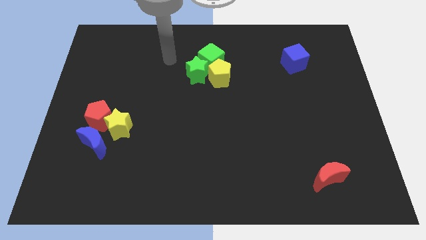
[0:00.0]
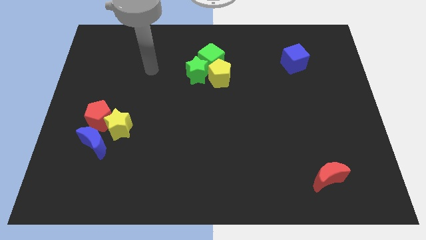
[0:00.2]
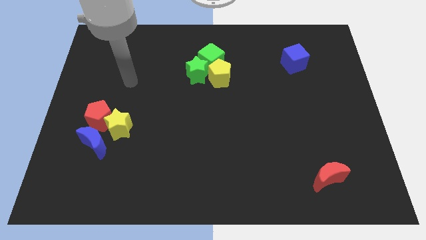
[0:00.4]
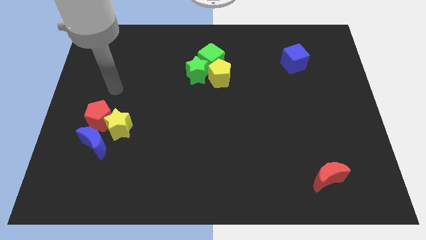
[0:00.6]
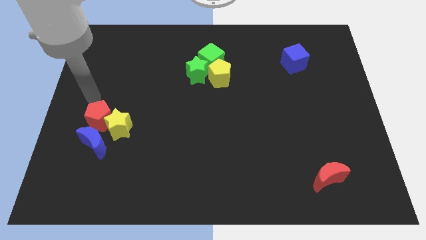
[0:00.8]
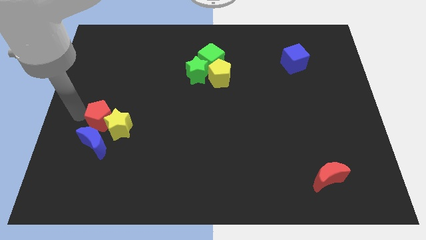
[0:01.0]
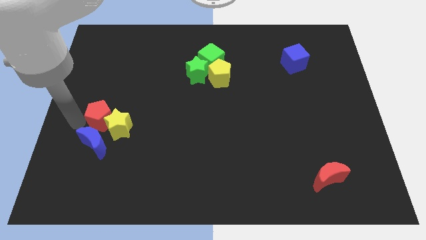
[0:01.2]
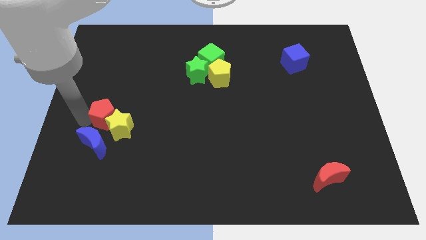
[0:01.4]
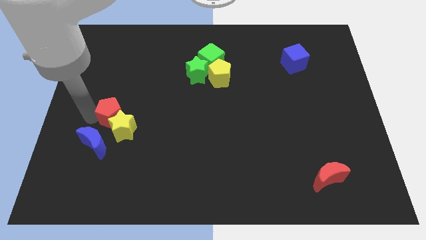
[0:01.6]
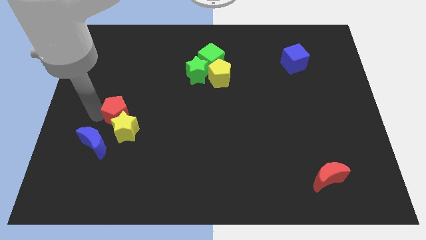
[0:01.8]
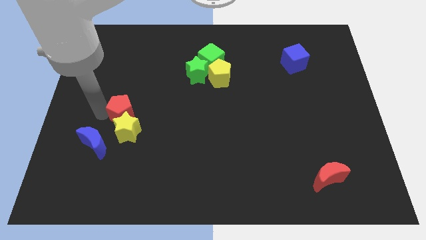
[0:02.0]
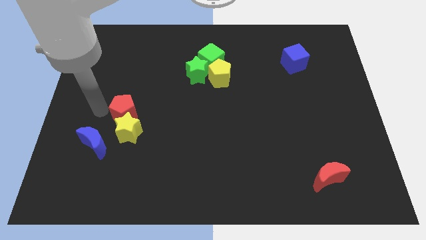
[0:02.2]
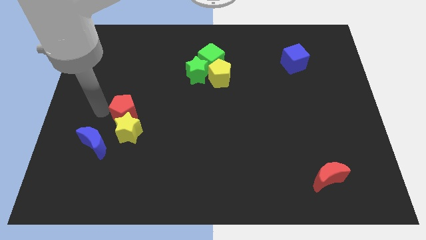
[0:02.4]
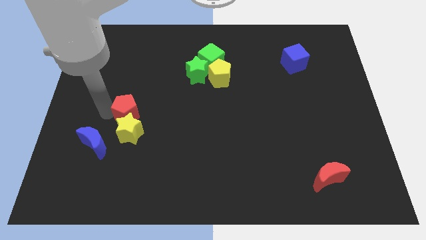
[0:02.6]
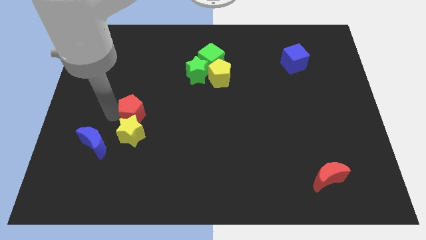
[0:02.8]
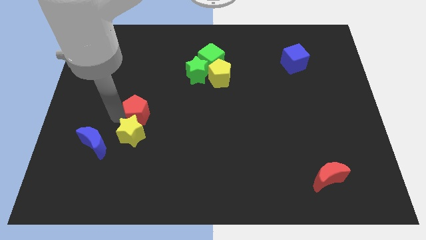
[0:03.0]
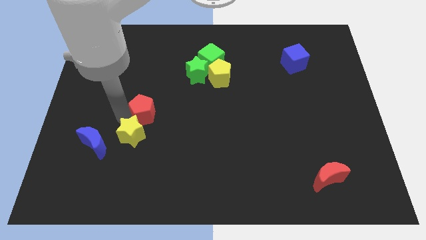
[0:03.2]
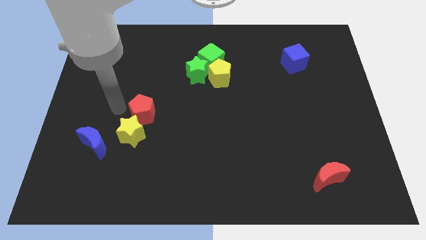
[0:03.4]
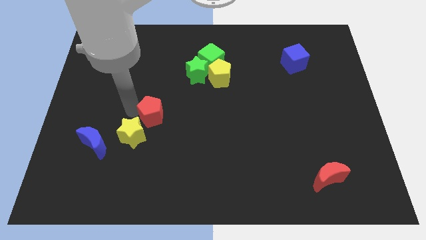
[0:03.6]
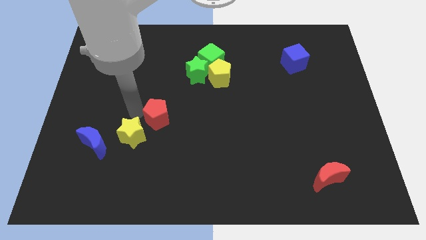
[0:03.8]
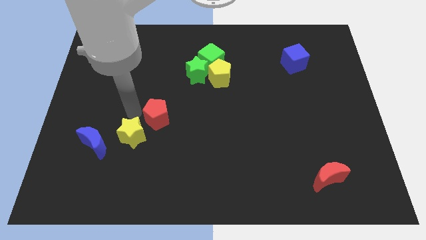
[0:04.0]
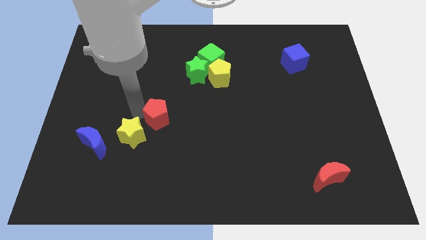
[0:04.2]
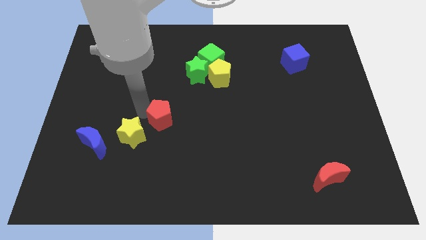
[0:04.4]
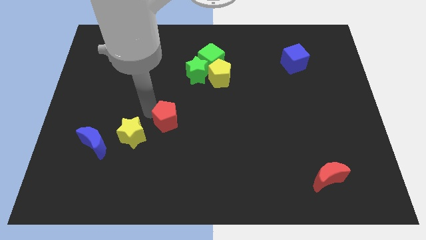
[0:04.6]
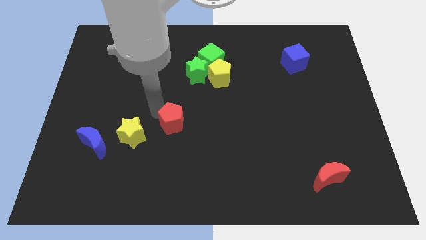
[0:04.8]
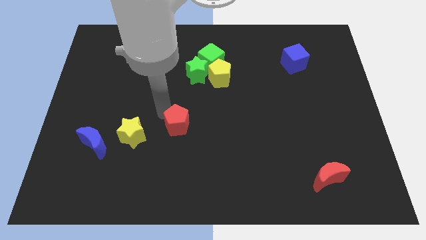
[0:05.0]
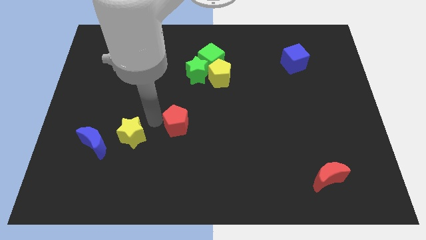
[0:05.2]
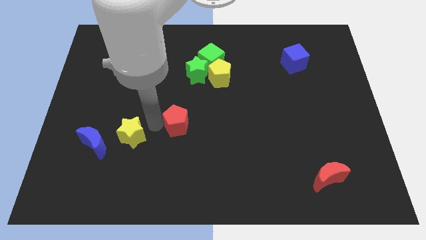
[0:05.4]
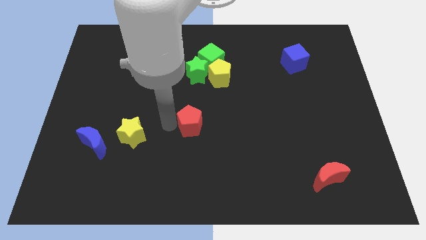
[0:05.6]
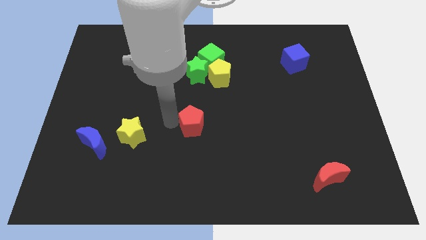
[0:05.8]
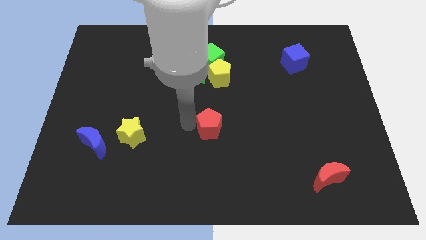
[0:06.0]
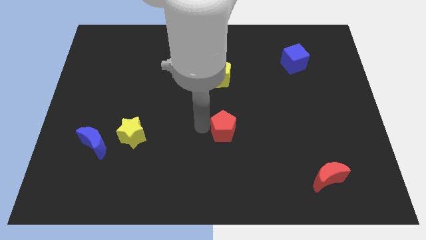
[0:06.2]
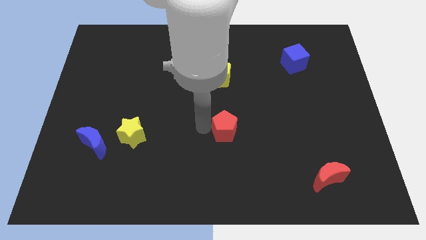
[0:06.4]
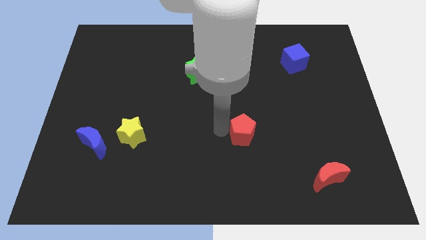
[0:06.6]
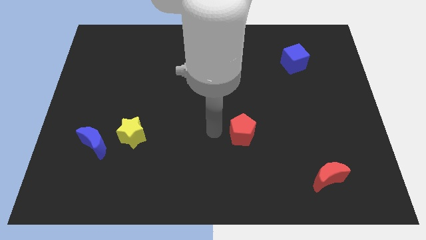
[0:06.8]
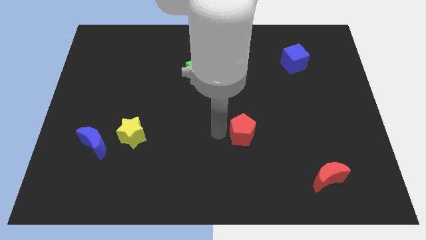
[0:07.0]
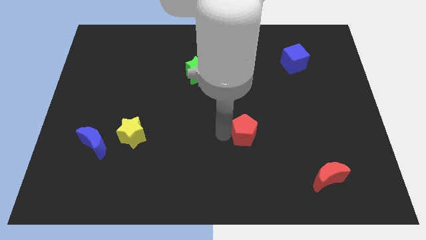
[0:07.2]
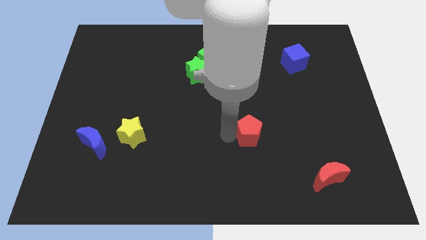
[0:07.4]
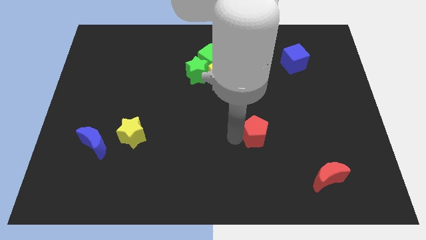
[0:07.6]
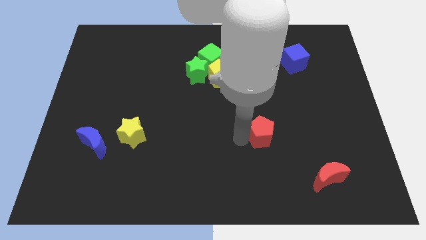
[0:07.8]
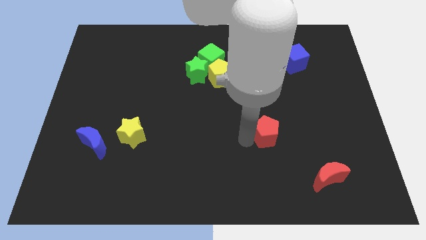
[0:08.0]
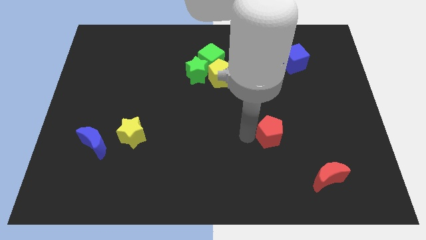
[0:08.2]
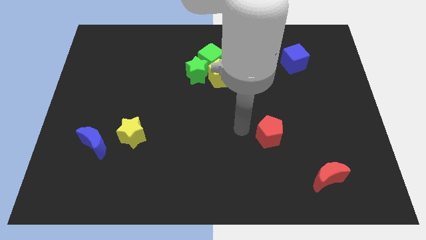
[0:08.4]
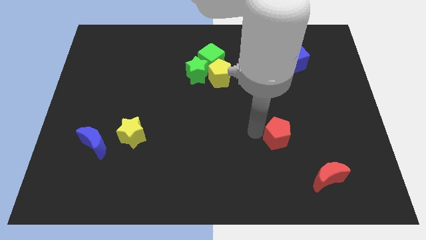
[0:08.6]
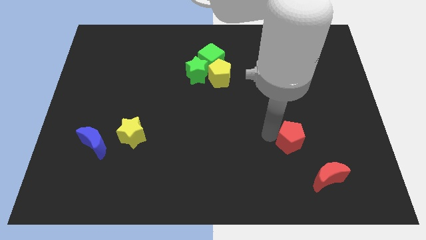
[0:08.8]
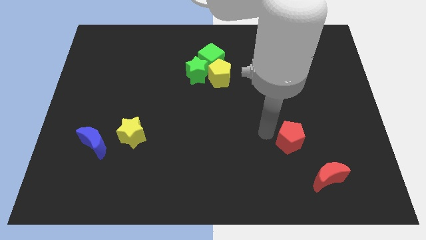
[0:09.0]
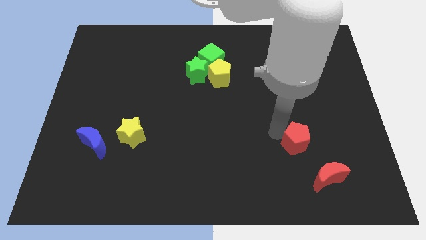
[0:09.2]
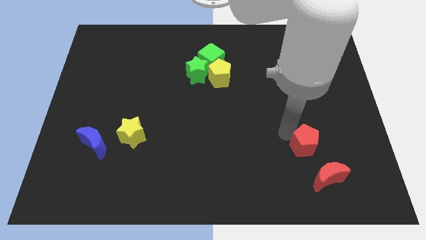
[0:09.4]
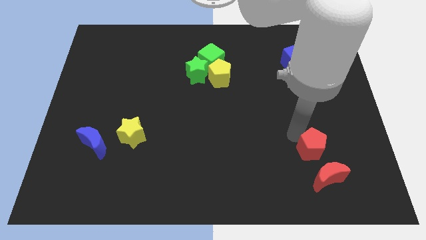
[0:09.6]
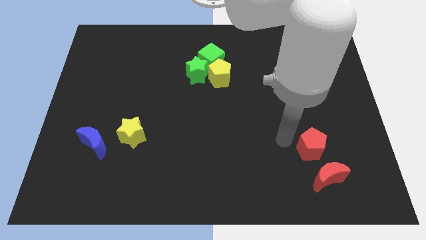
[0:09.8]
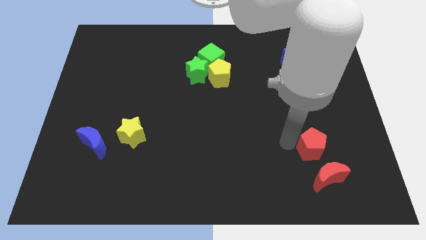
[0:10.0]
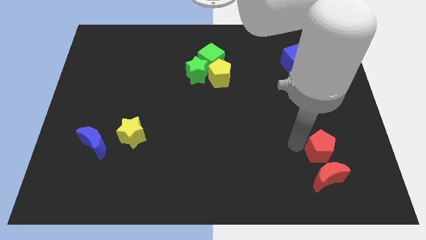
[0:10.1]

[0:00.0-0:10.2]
put the red pentagon diagonally up and to the right of the red moon

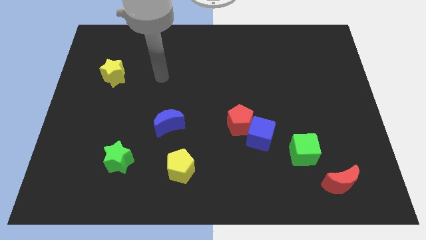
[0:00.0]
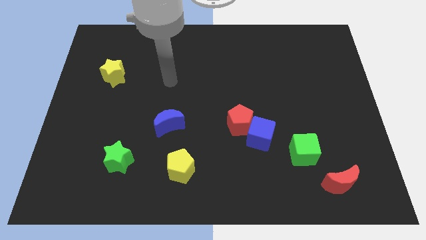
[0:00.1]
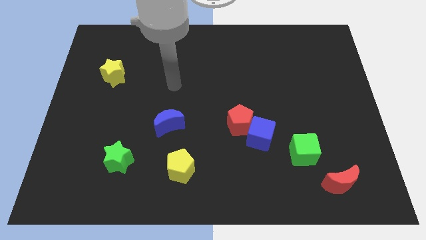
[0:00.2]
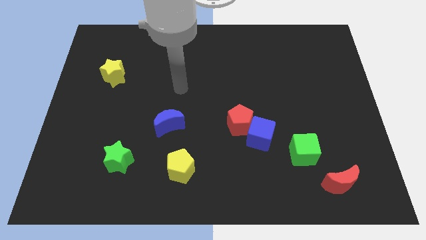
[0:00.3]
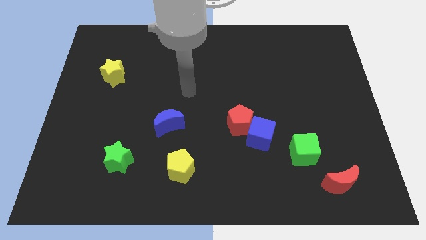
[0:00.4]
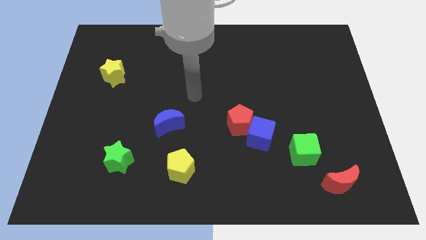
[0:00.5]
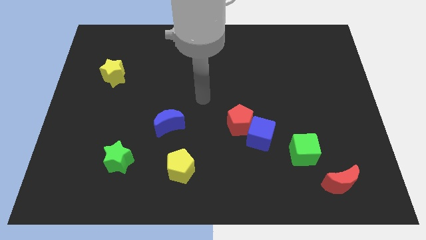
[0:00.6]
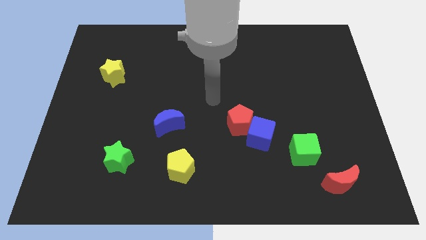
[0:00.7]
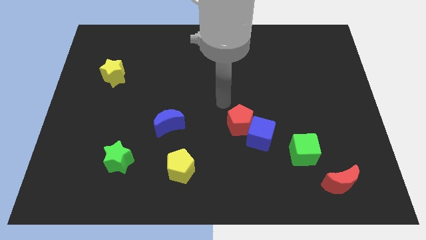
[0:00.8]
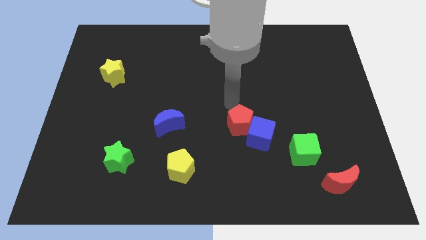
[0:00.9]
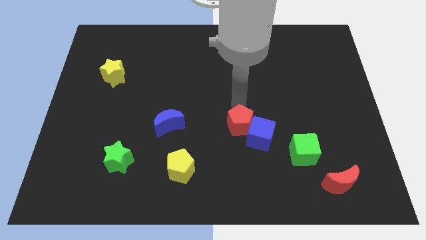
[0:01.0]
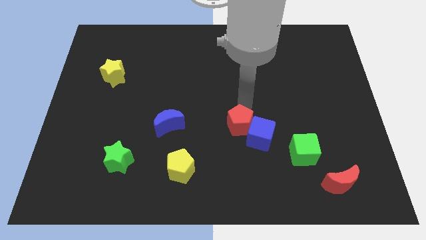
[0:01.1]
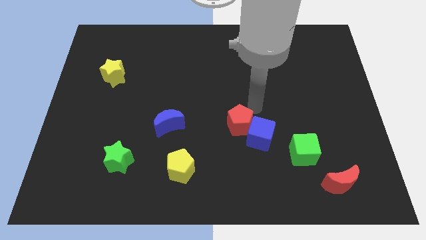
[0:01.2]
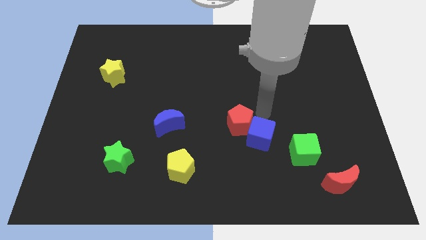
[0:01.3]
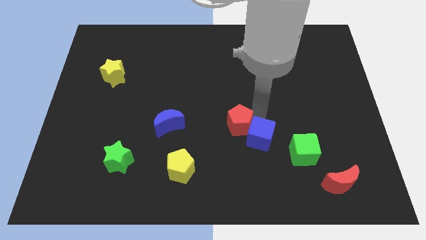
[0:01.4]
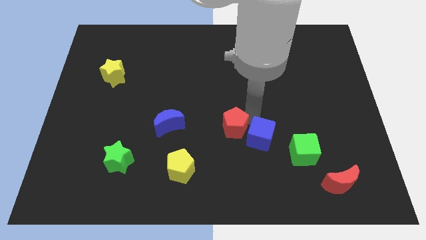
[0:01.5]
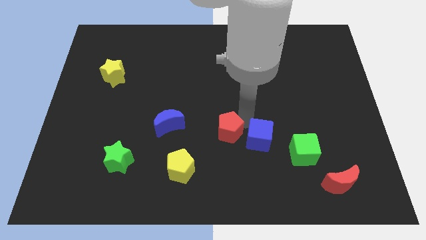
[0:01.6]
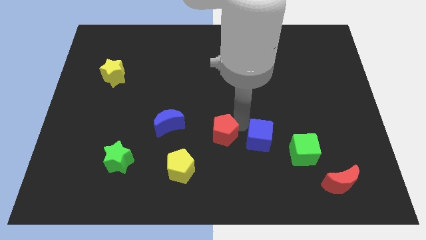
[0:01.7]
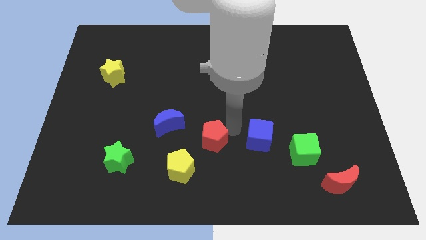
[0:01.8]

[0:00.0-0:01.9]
push the red pentagon to the bottom right of the blue moon

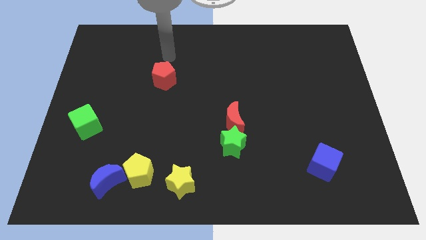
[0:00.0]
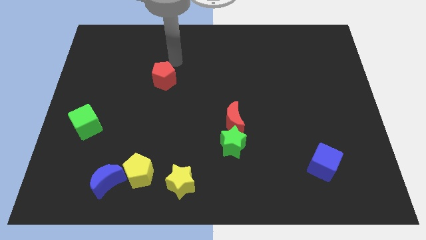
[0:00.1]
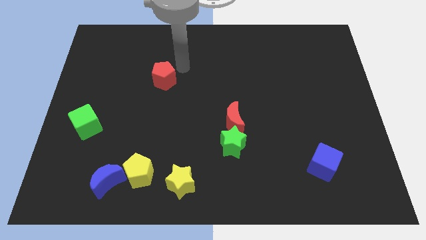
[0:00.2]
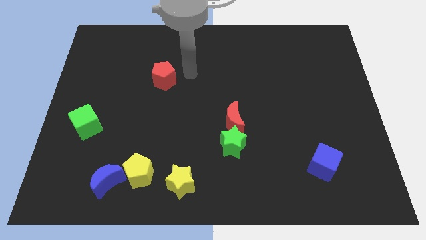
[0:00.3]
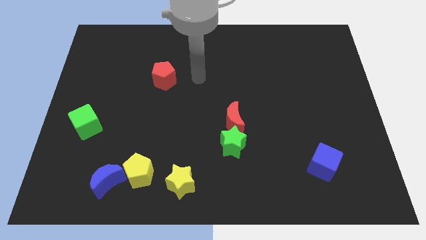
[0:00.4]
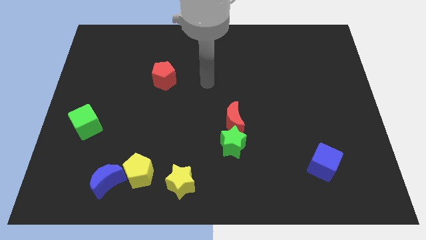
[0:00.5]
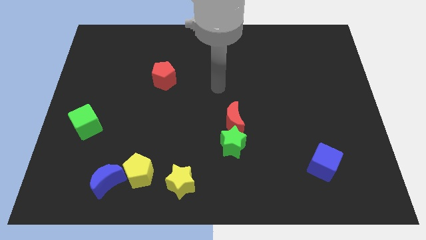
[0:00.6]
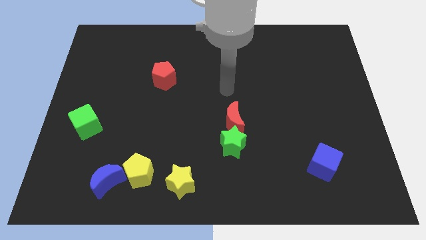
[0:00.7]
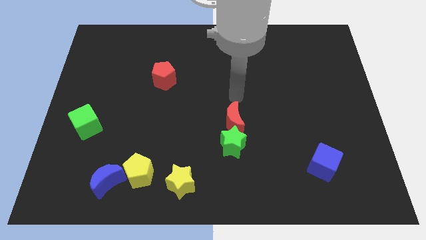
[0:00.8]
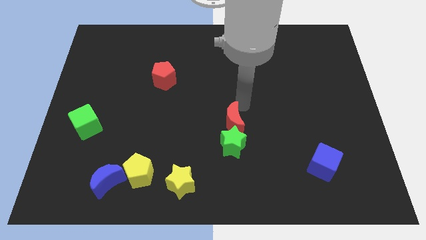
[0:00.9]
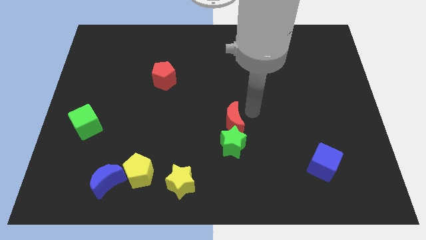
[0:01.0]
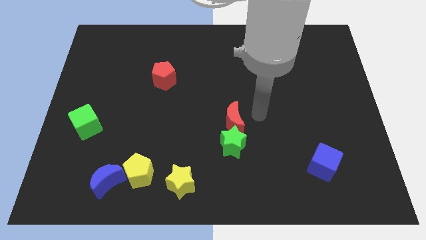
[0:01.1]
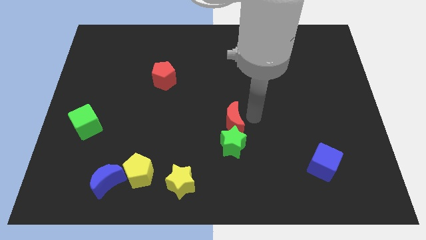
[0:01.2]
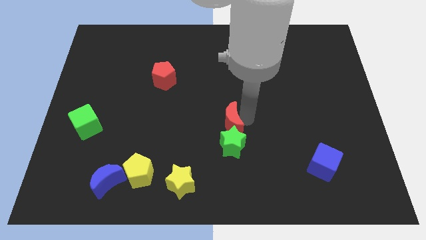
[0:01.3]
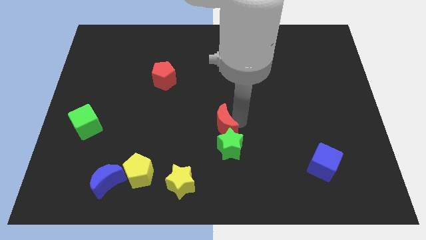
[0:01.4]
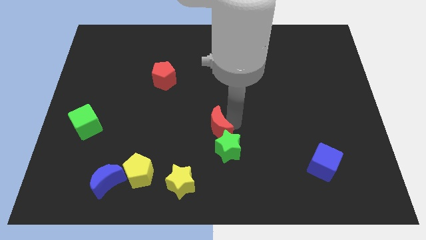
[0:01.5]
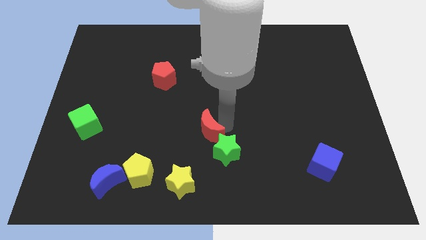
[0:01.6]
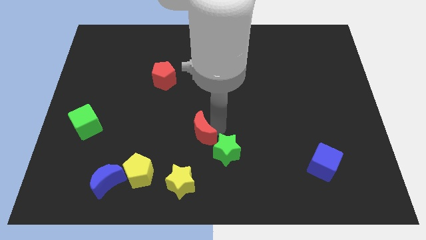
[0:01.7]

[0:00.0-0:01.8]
push the red moon to the top of the yellow star
